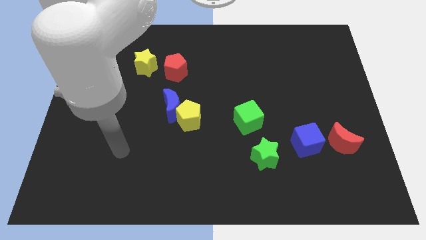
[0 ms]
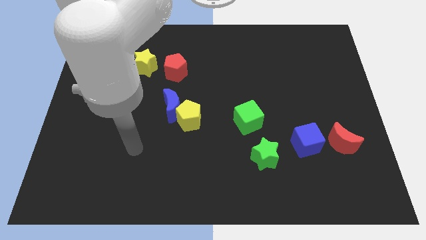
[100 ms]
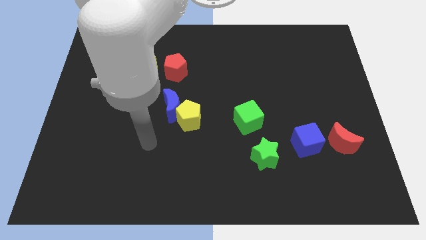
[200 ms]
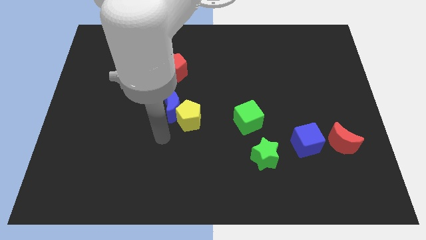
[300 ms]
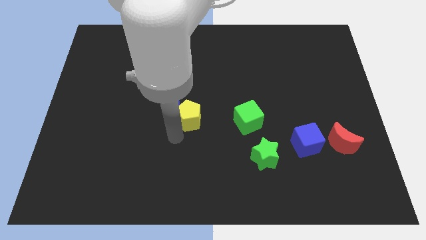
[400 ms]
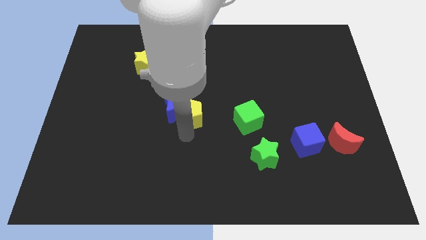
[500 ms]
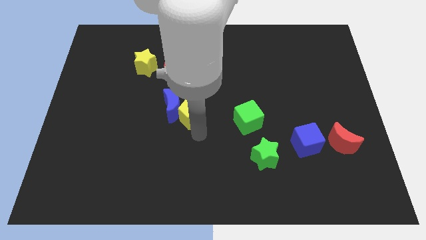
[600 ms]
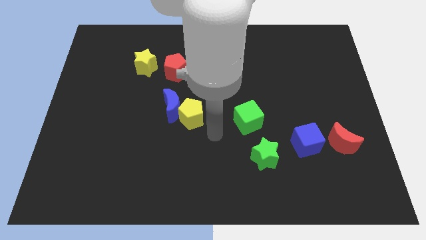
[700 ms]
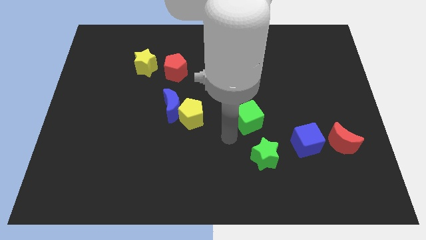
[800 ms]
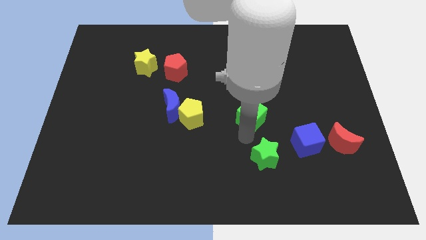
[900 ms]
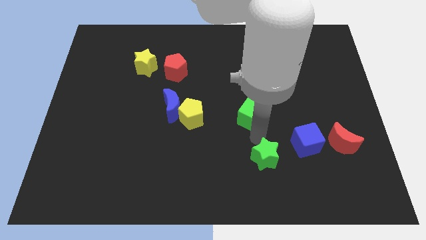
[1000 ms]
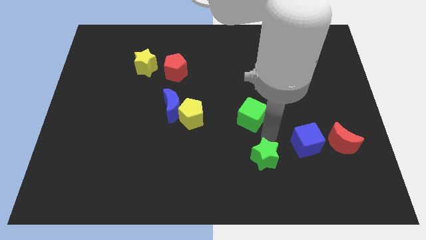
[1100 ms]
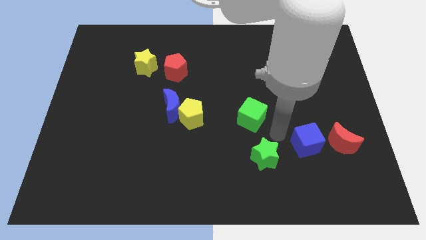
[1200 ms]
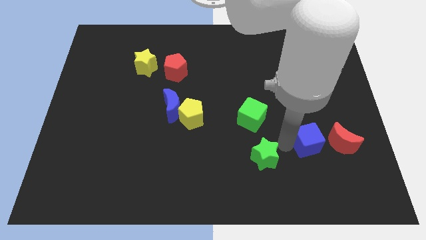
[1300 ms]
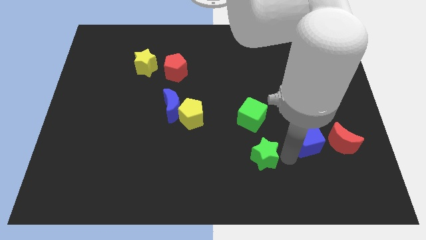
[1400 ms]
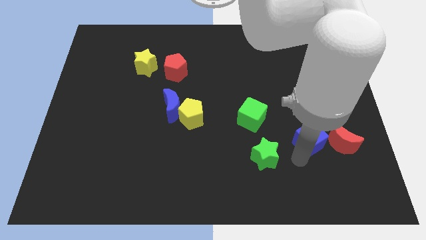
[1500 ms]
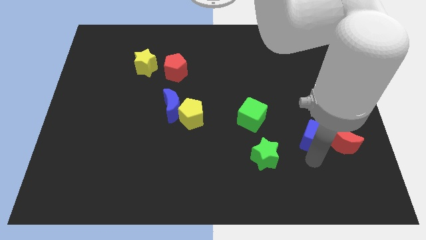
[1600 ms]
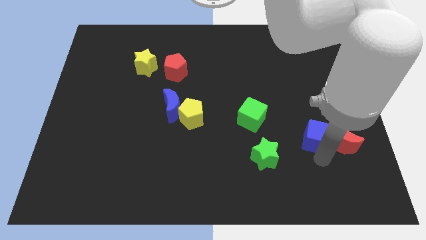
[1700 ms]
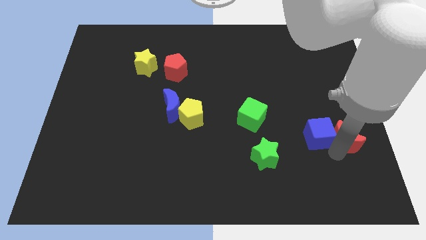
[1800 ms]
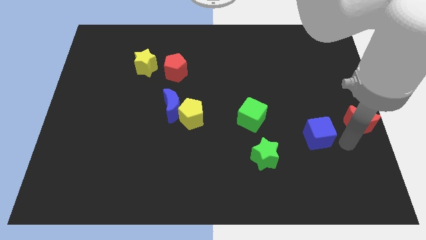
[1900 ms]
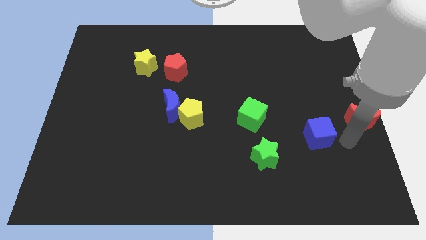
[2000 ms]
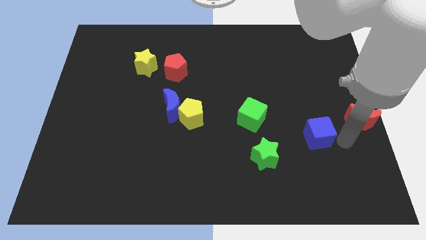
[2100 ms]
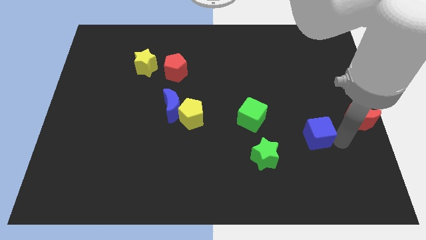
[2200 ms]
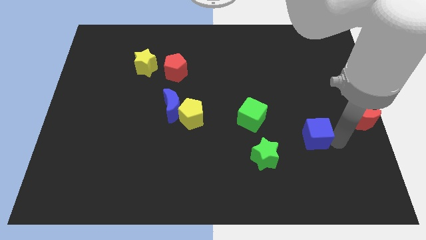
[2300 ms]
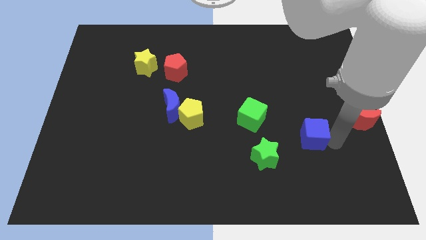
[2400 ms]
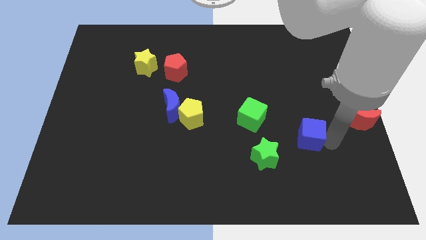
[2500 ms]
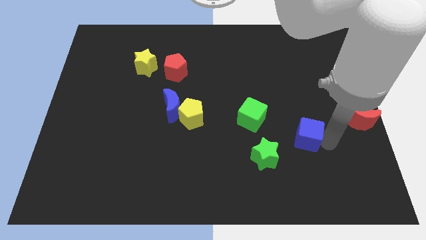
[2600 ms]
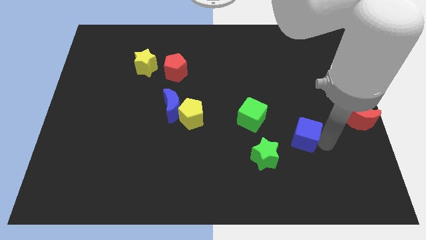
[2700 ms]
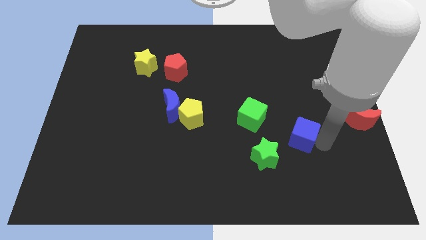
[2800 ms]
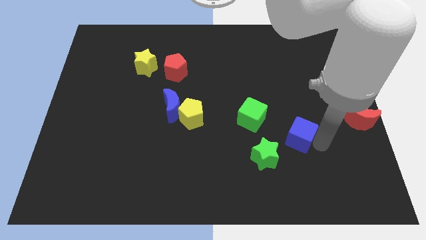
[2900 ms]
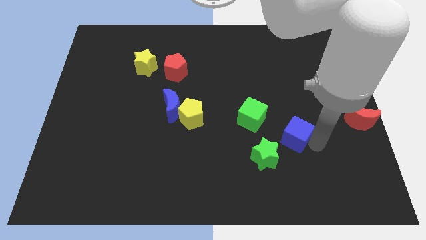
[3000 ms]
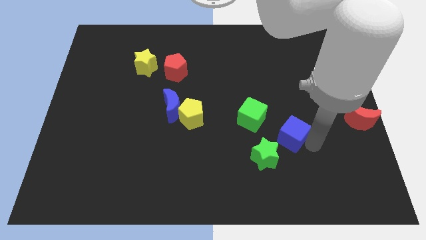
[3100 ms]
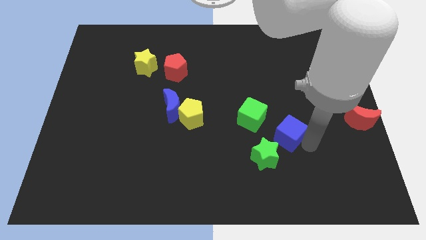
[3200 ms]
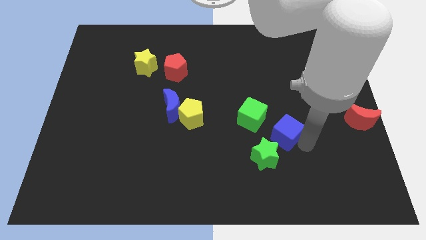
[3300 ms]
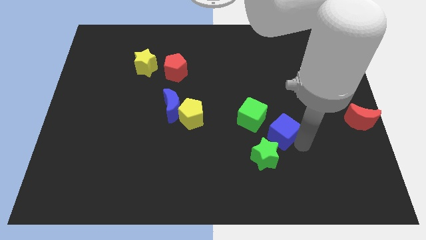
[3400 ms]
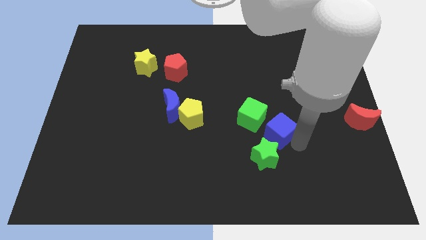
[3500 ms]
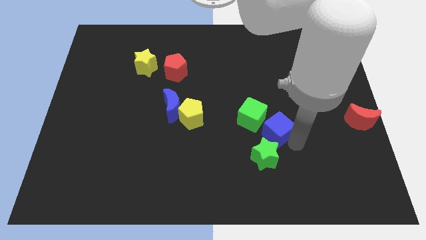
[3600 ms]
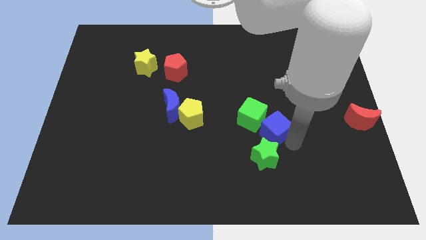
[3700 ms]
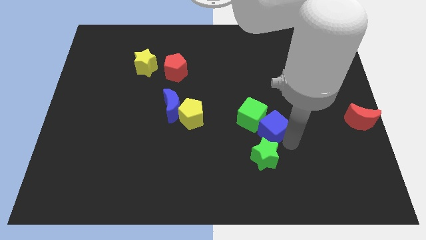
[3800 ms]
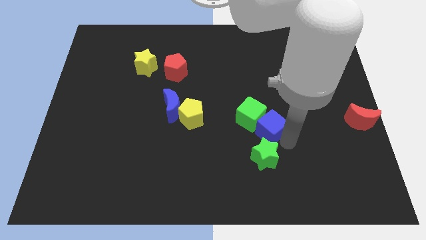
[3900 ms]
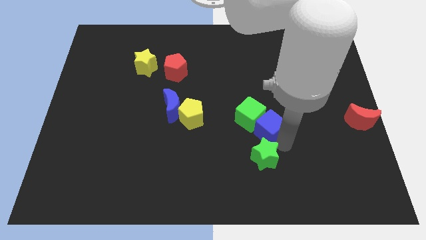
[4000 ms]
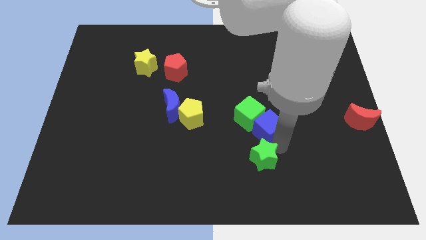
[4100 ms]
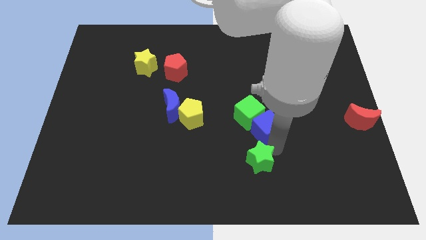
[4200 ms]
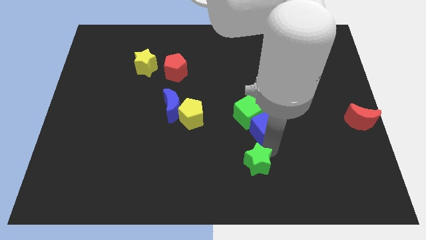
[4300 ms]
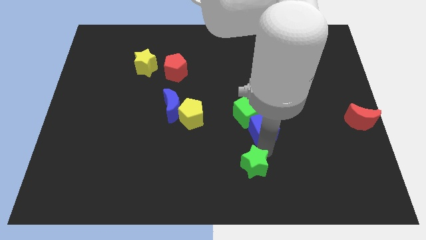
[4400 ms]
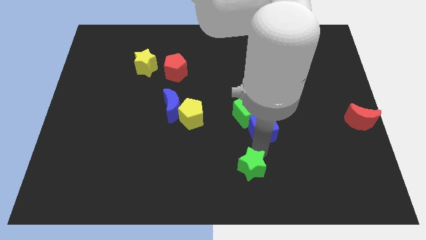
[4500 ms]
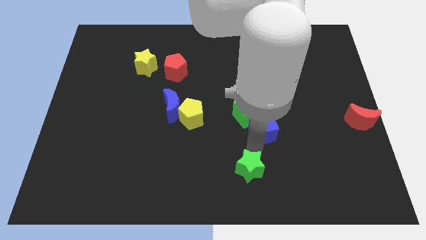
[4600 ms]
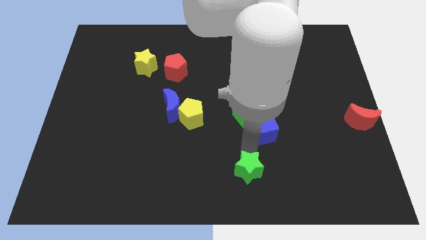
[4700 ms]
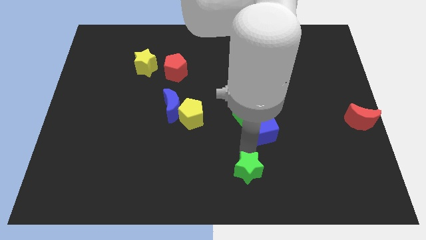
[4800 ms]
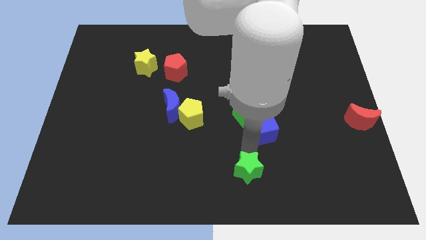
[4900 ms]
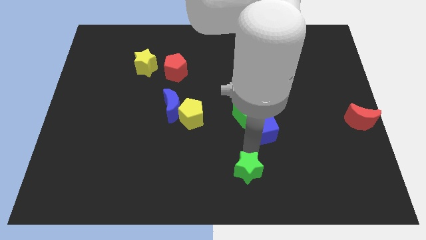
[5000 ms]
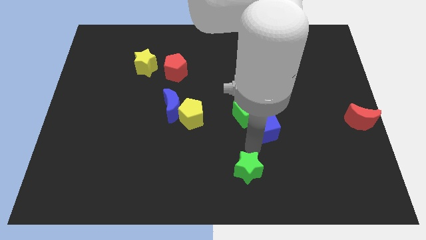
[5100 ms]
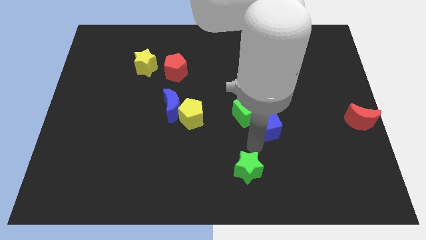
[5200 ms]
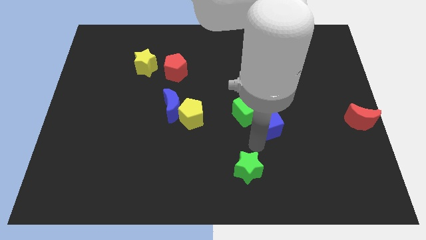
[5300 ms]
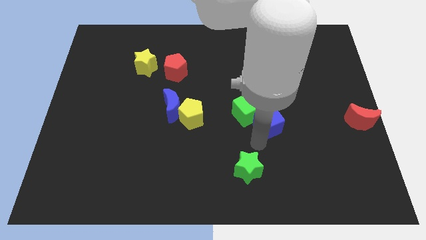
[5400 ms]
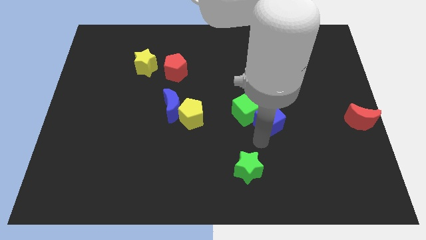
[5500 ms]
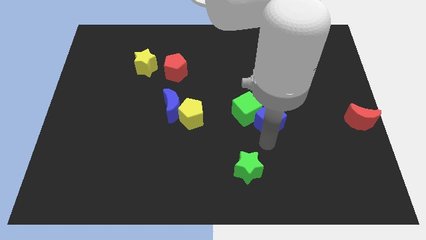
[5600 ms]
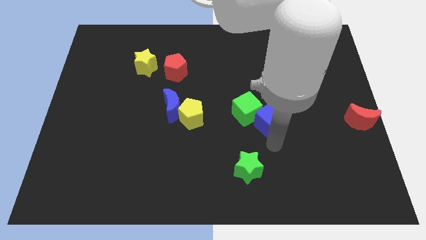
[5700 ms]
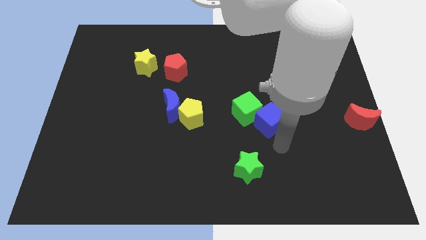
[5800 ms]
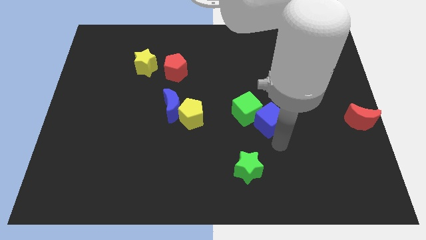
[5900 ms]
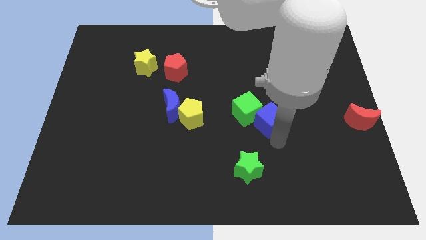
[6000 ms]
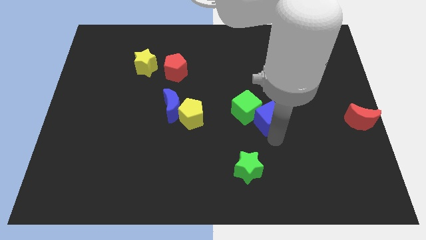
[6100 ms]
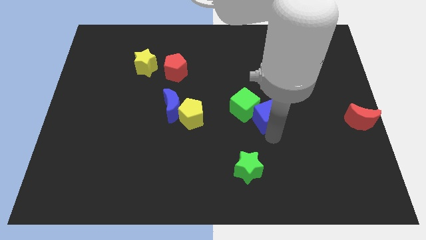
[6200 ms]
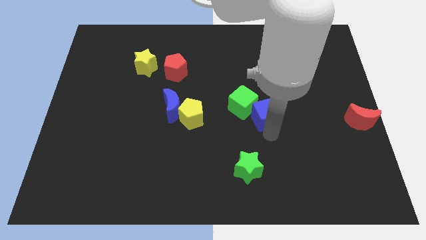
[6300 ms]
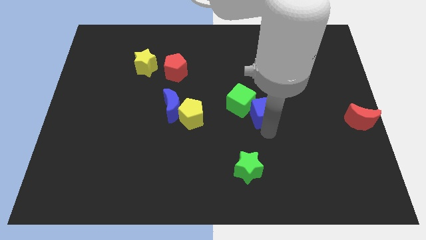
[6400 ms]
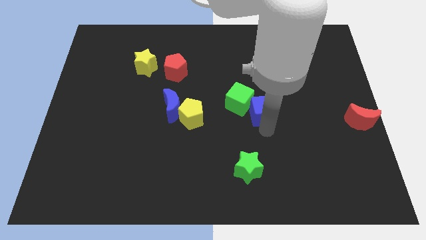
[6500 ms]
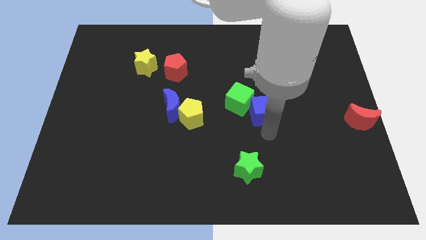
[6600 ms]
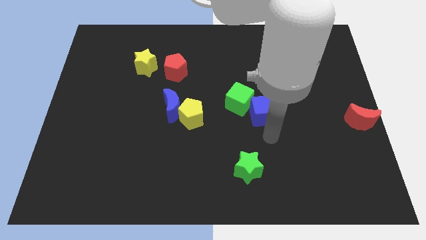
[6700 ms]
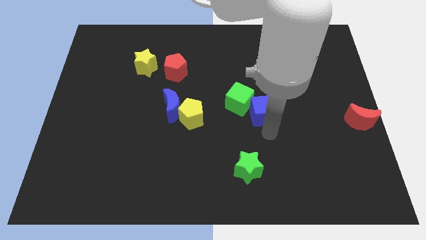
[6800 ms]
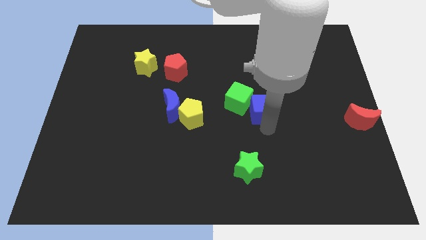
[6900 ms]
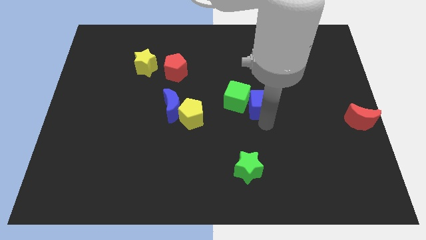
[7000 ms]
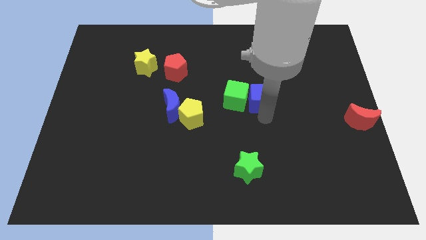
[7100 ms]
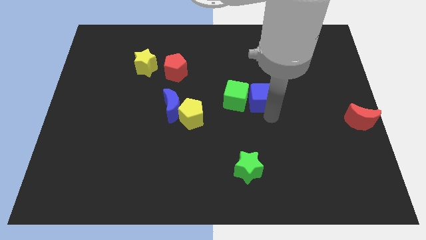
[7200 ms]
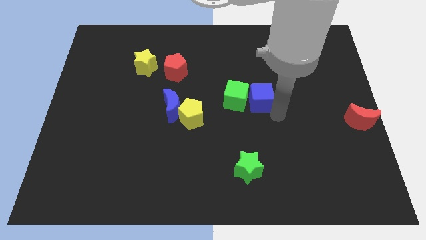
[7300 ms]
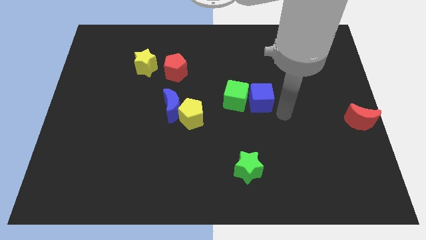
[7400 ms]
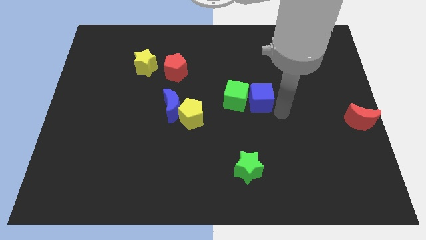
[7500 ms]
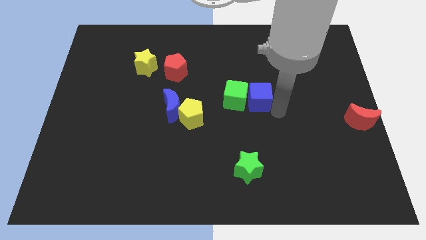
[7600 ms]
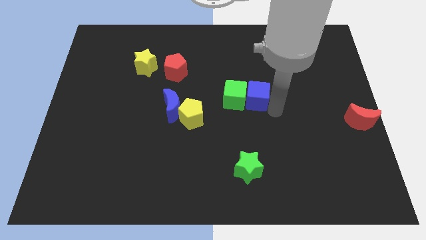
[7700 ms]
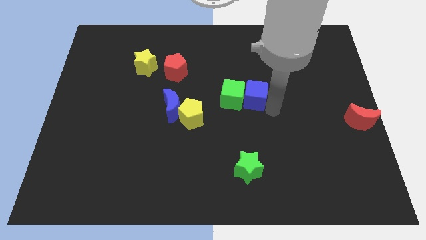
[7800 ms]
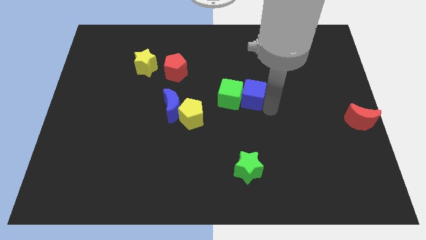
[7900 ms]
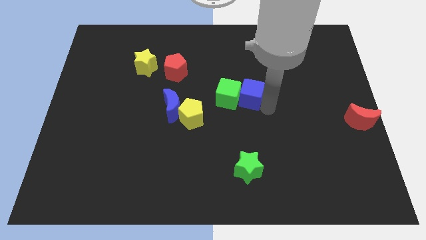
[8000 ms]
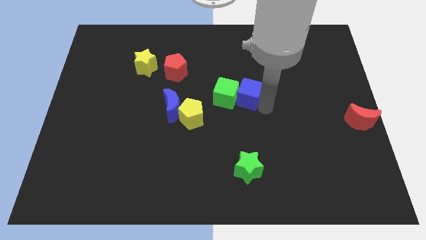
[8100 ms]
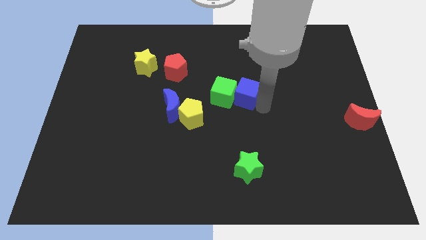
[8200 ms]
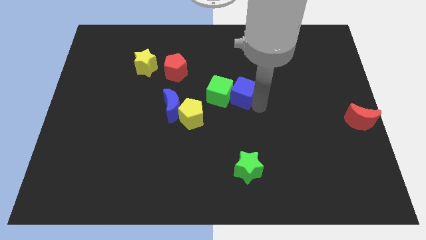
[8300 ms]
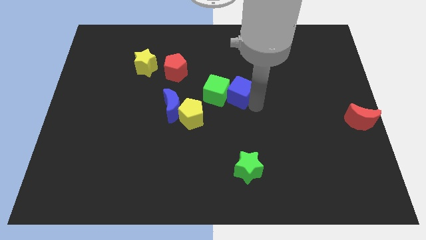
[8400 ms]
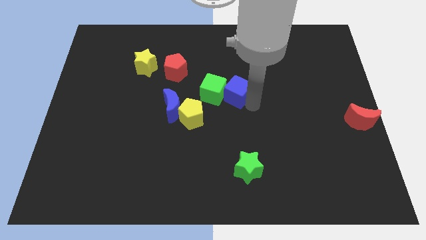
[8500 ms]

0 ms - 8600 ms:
move the blue cube diagonally upwards and left
